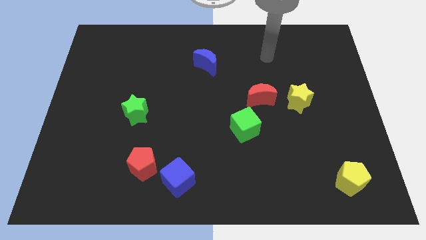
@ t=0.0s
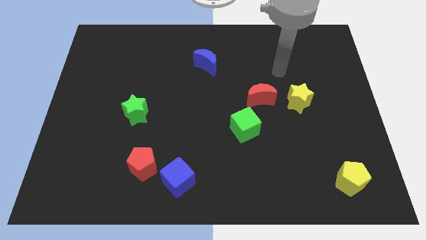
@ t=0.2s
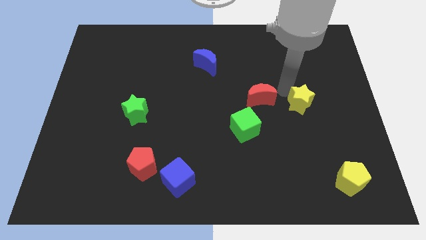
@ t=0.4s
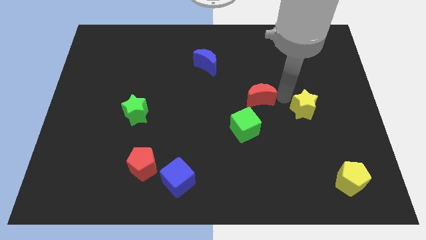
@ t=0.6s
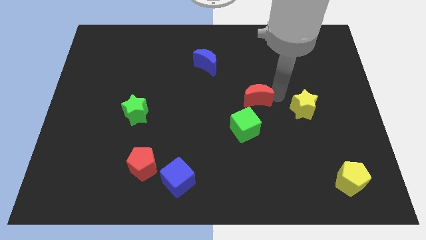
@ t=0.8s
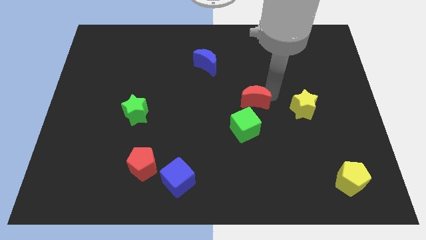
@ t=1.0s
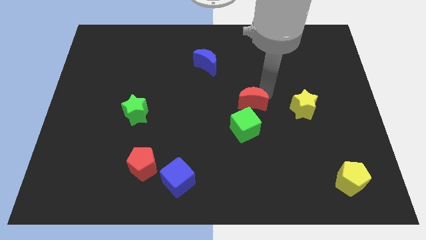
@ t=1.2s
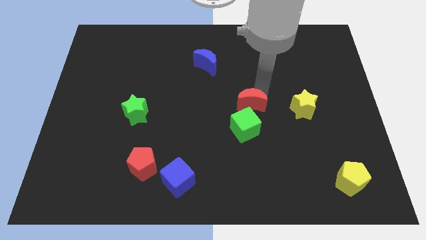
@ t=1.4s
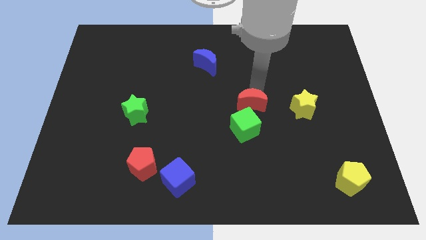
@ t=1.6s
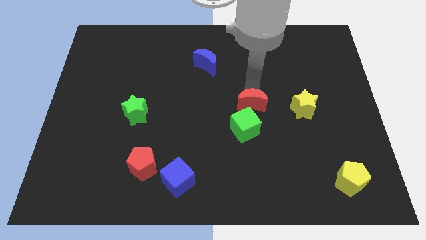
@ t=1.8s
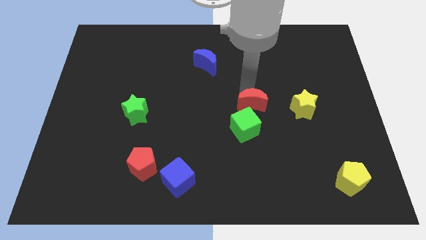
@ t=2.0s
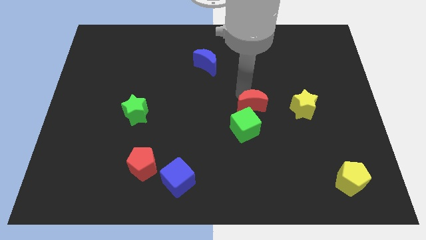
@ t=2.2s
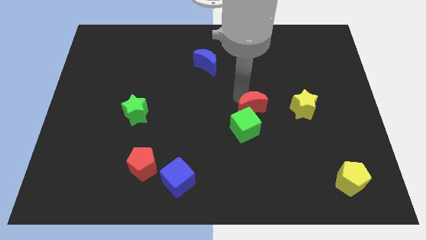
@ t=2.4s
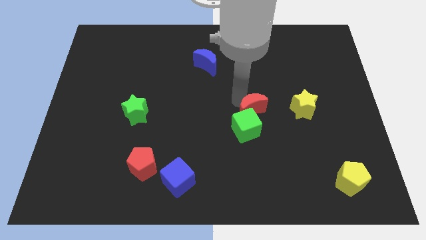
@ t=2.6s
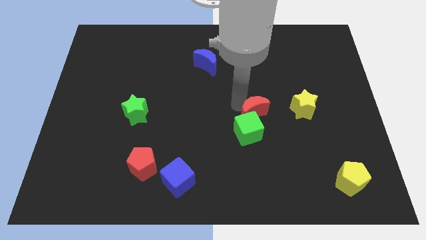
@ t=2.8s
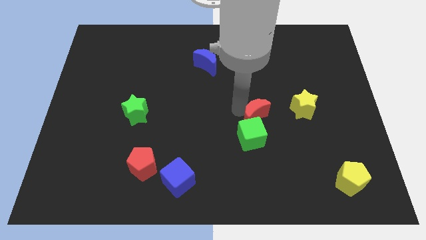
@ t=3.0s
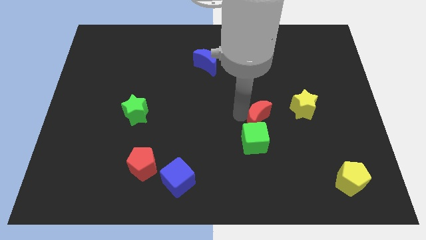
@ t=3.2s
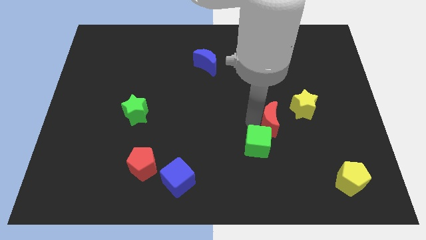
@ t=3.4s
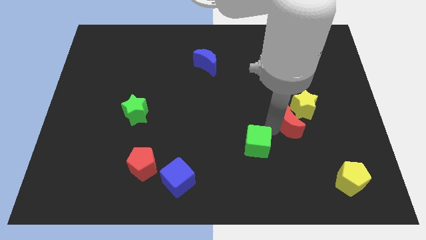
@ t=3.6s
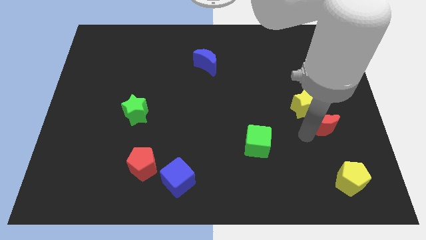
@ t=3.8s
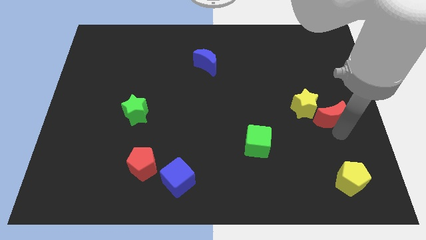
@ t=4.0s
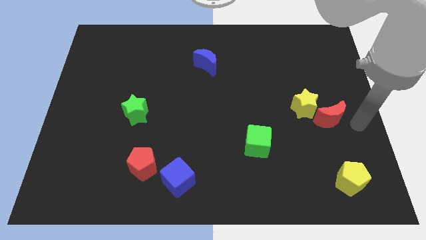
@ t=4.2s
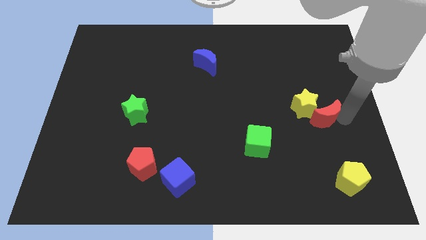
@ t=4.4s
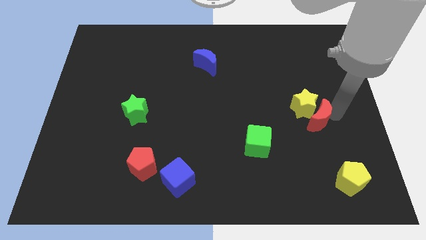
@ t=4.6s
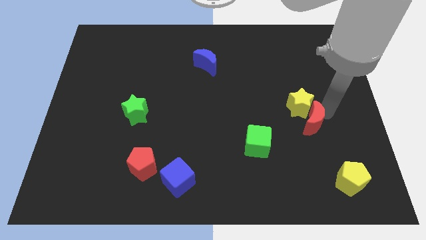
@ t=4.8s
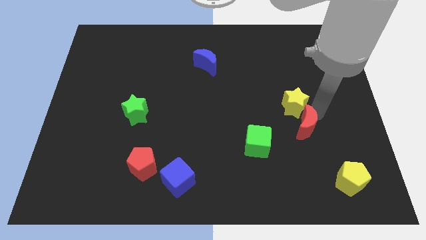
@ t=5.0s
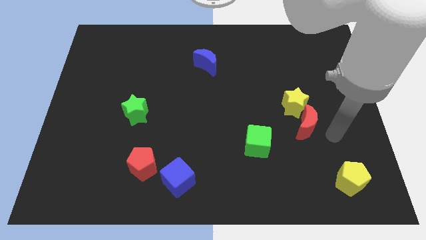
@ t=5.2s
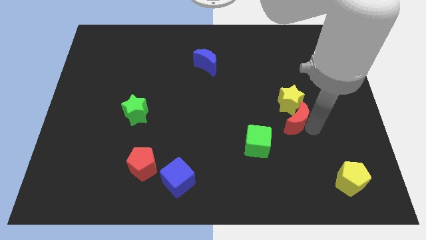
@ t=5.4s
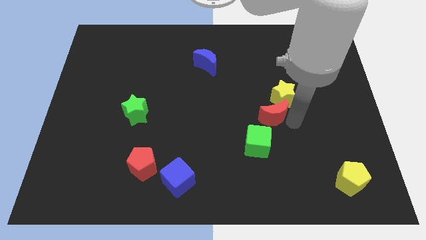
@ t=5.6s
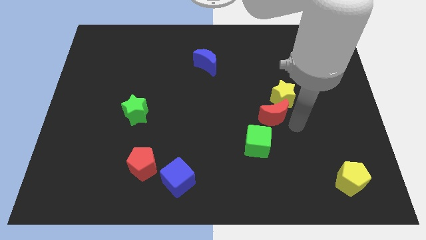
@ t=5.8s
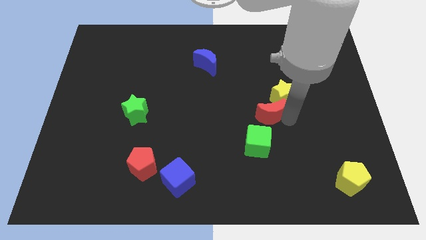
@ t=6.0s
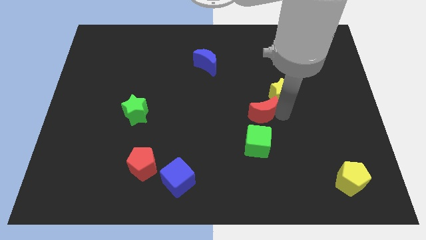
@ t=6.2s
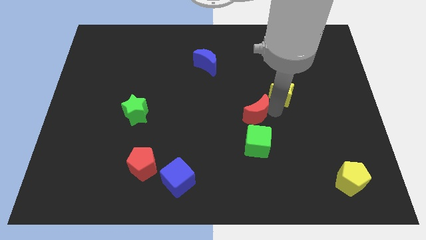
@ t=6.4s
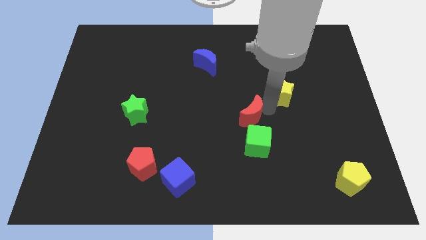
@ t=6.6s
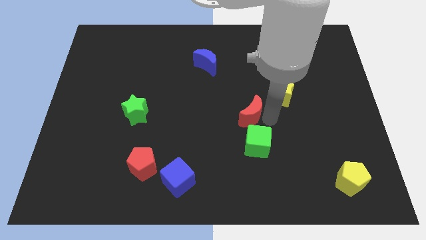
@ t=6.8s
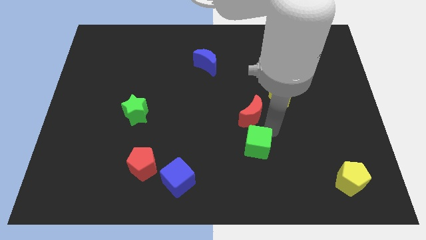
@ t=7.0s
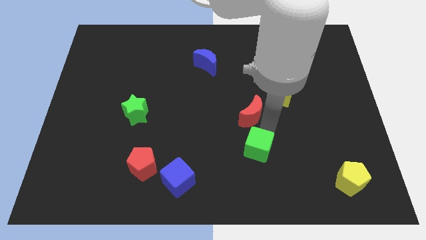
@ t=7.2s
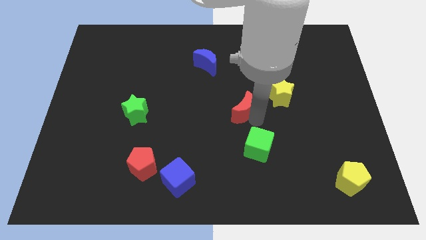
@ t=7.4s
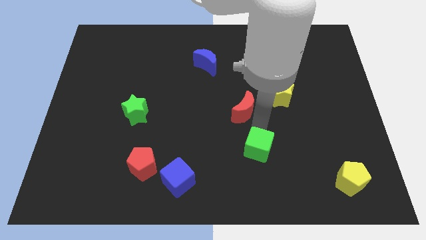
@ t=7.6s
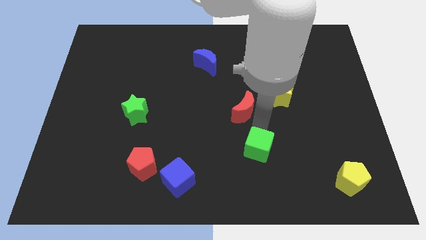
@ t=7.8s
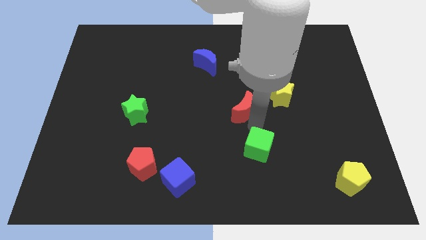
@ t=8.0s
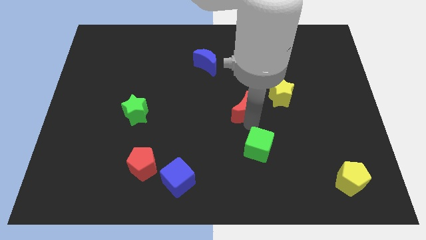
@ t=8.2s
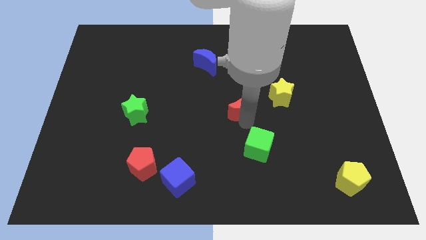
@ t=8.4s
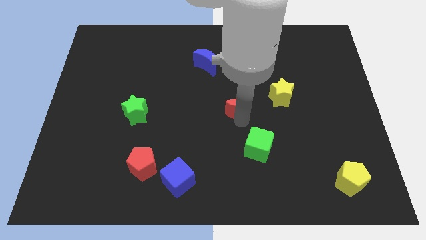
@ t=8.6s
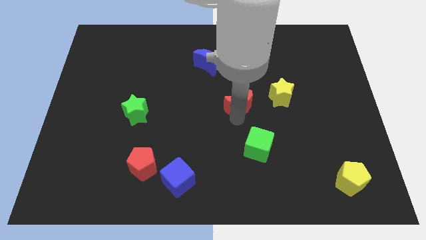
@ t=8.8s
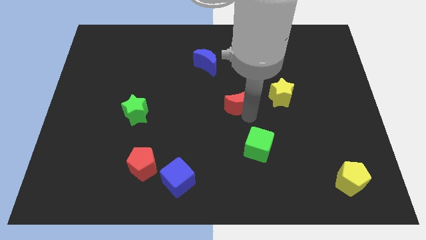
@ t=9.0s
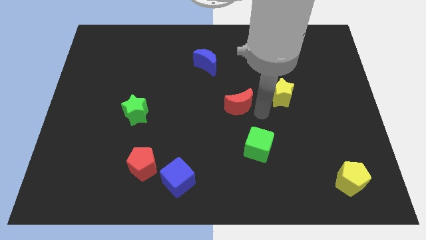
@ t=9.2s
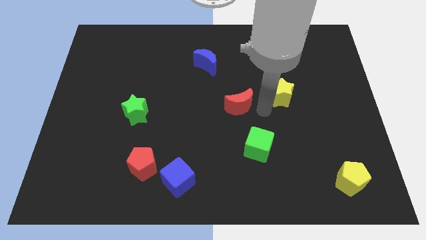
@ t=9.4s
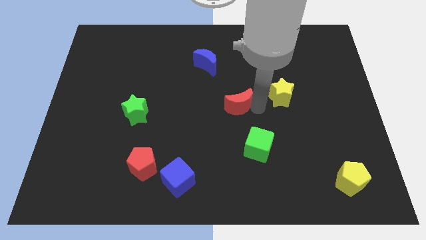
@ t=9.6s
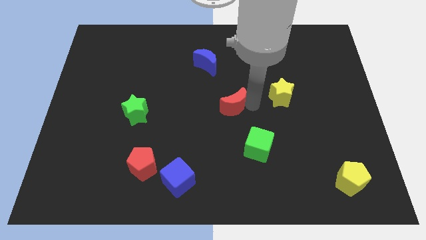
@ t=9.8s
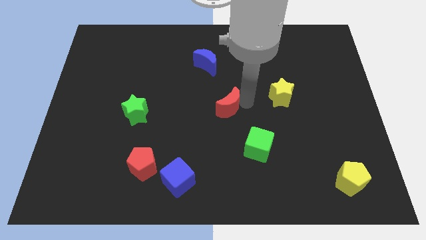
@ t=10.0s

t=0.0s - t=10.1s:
push the red moon slightly left

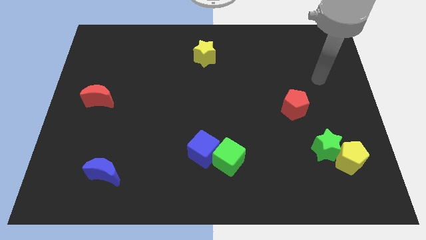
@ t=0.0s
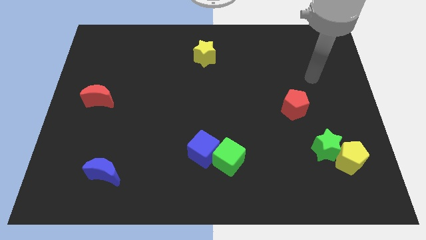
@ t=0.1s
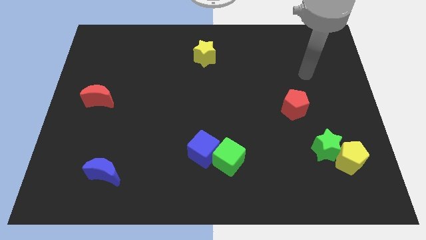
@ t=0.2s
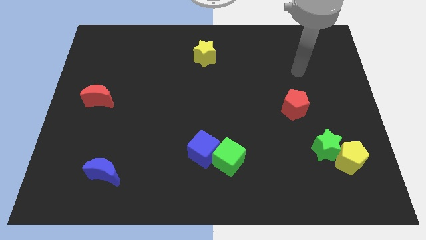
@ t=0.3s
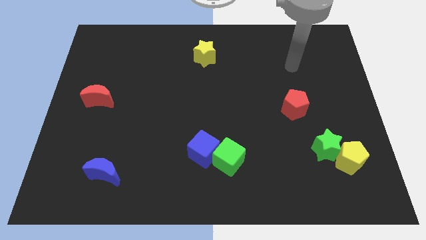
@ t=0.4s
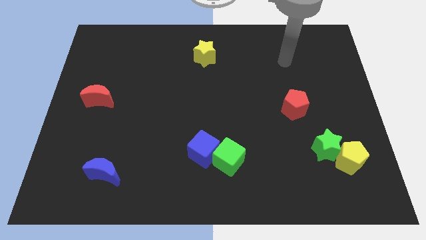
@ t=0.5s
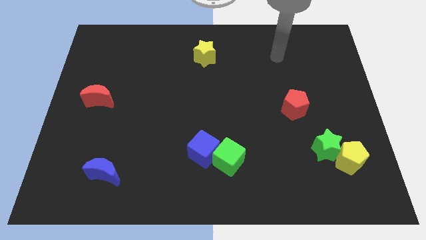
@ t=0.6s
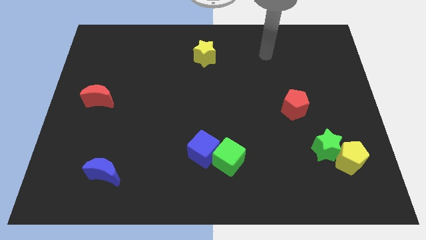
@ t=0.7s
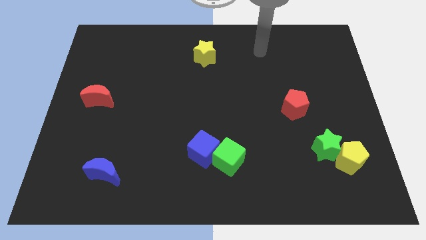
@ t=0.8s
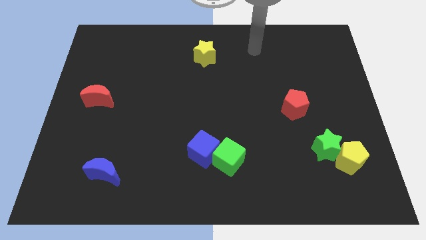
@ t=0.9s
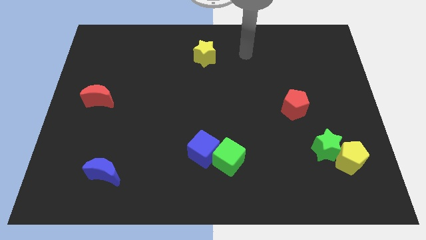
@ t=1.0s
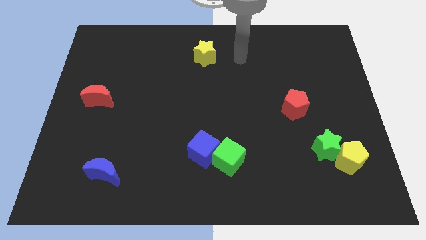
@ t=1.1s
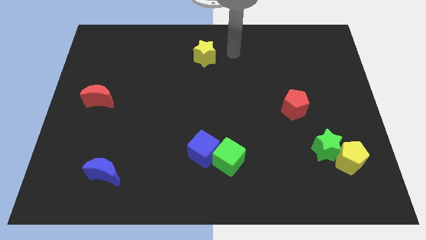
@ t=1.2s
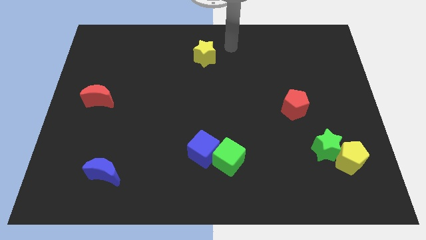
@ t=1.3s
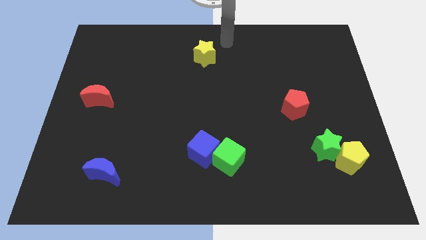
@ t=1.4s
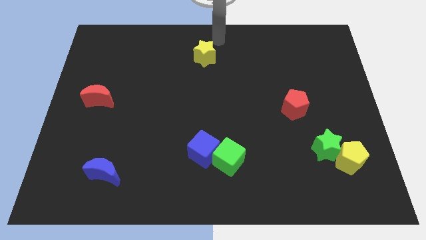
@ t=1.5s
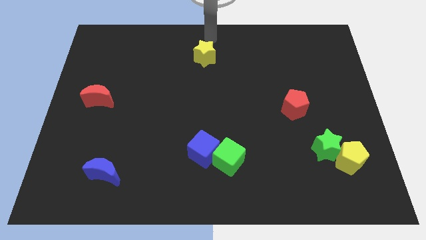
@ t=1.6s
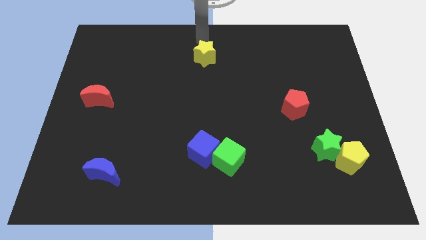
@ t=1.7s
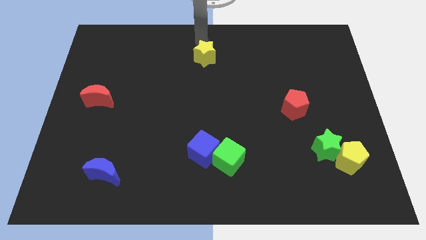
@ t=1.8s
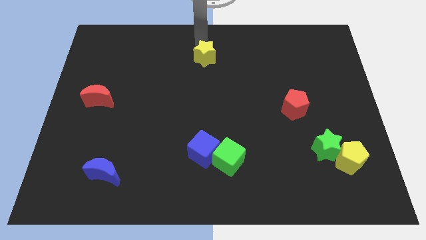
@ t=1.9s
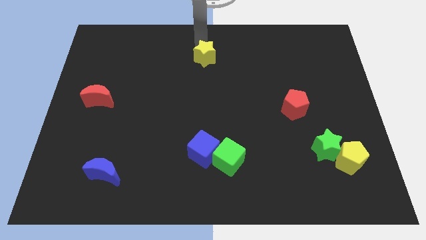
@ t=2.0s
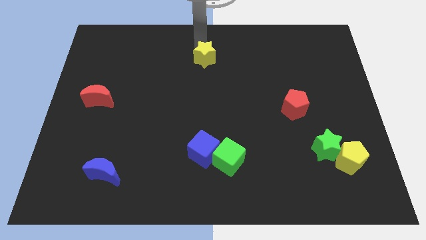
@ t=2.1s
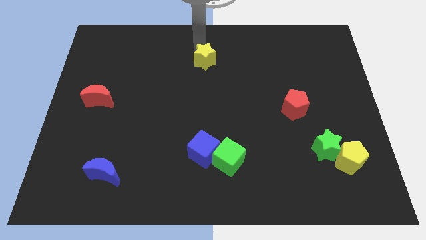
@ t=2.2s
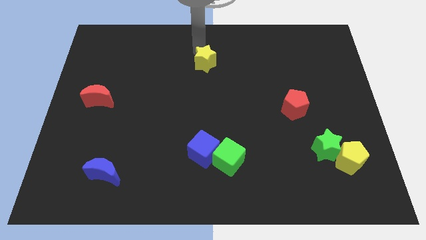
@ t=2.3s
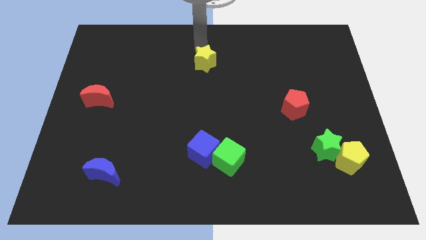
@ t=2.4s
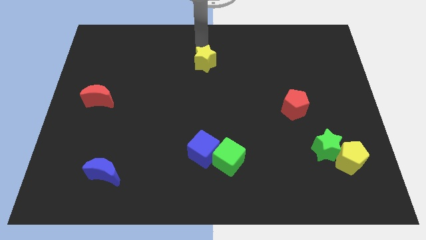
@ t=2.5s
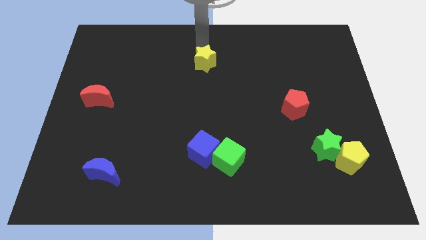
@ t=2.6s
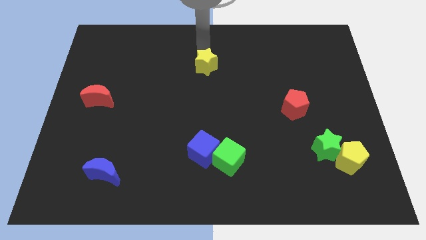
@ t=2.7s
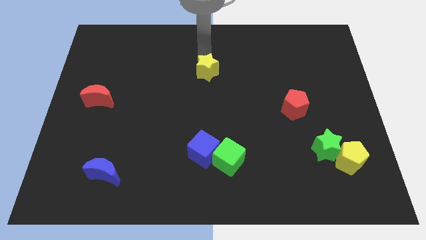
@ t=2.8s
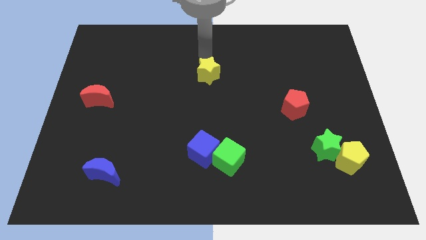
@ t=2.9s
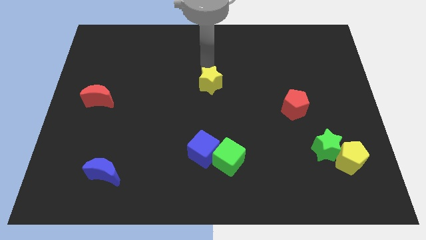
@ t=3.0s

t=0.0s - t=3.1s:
move the yellow star slightly downwards
